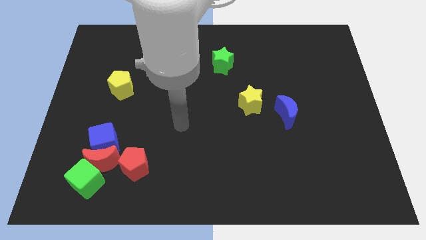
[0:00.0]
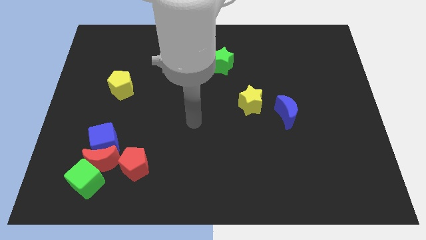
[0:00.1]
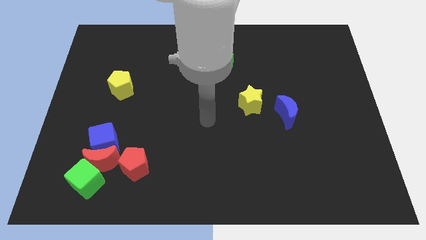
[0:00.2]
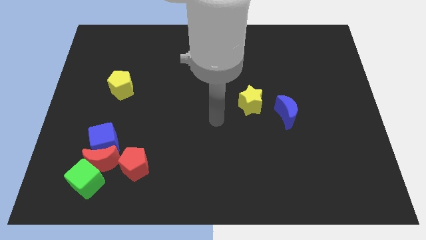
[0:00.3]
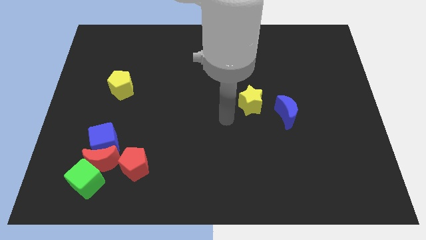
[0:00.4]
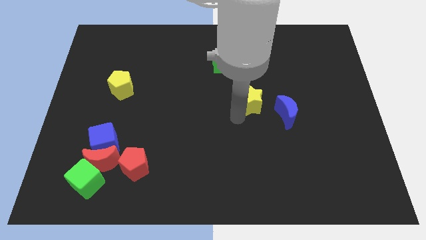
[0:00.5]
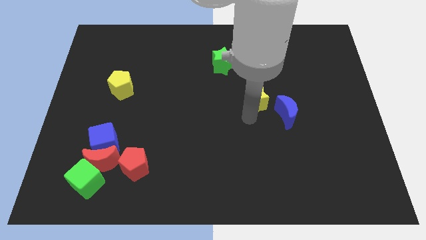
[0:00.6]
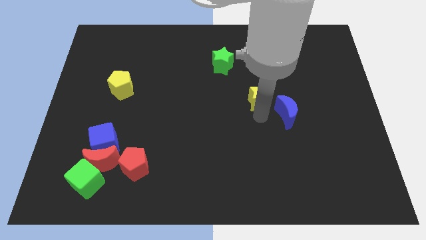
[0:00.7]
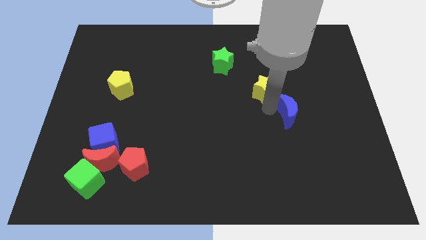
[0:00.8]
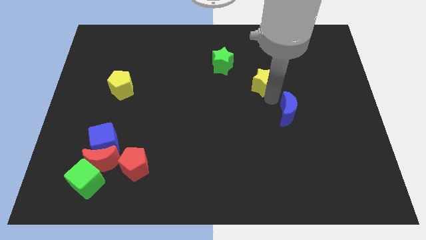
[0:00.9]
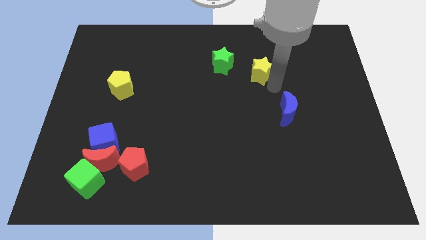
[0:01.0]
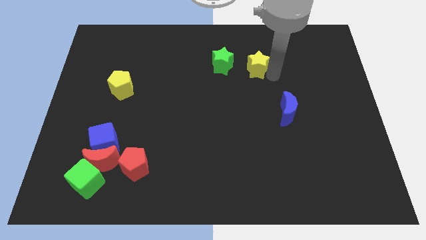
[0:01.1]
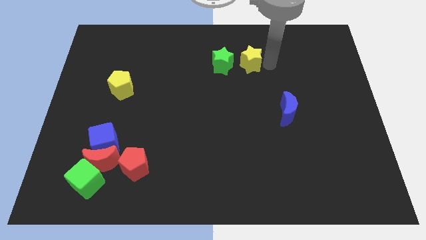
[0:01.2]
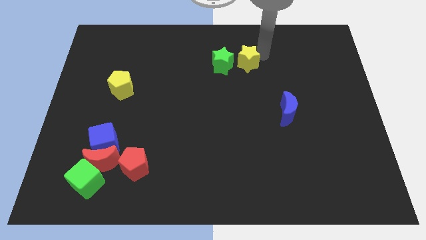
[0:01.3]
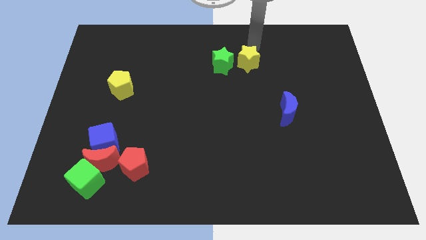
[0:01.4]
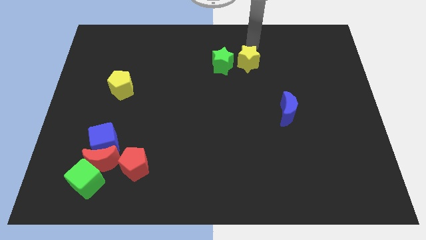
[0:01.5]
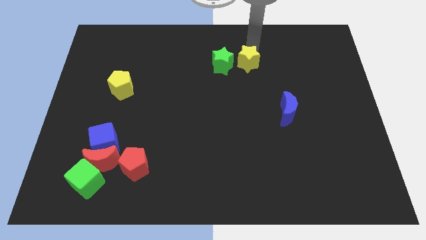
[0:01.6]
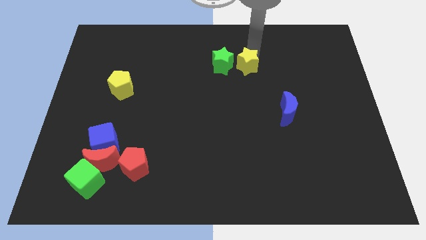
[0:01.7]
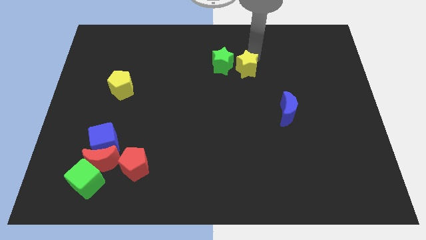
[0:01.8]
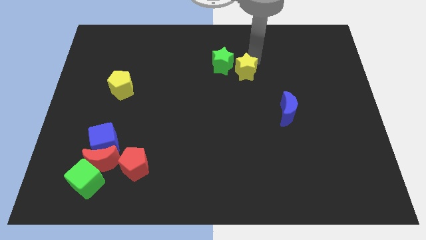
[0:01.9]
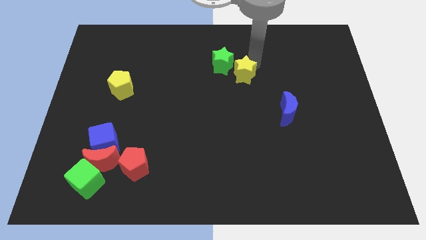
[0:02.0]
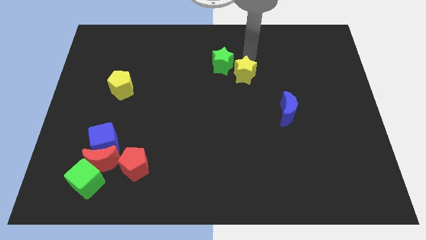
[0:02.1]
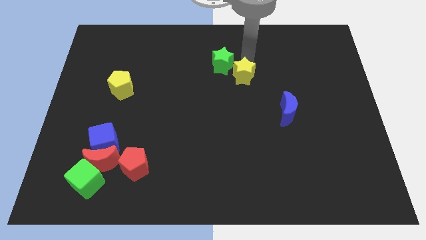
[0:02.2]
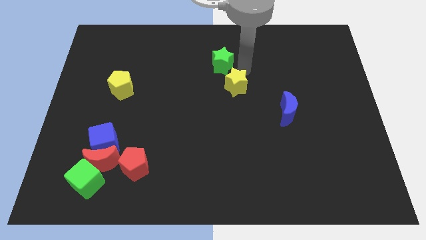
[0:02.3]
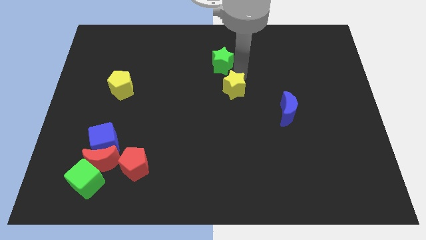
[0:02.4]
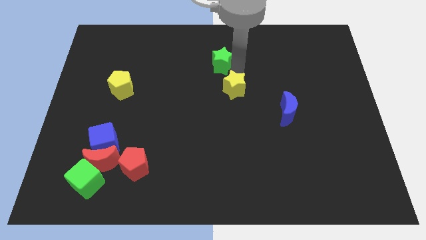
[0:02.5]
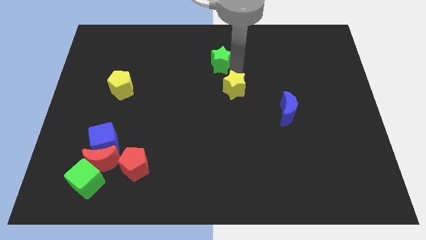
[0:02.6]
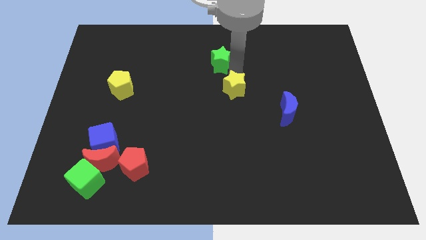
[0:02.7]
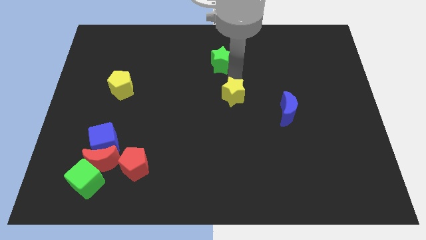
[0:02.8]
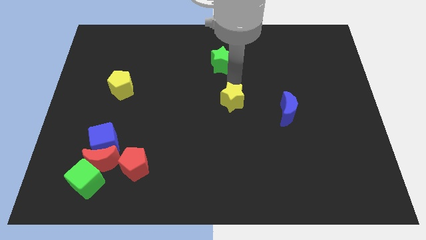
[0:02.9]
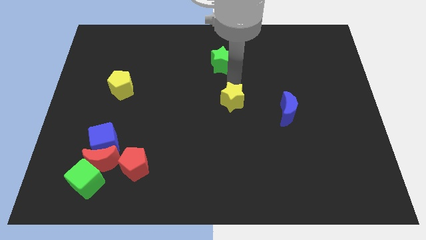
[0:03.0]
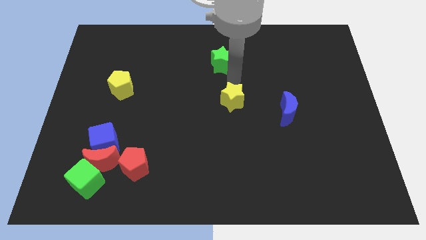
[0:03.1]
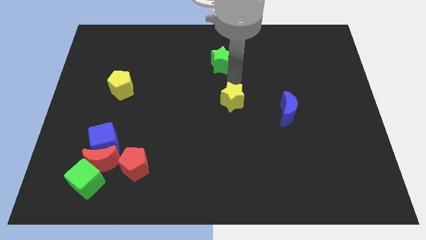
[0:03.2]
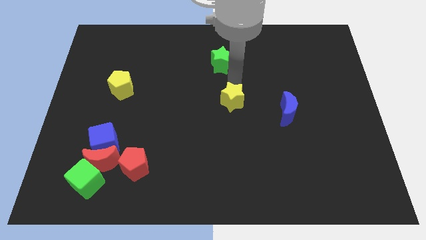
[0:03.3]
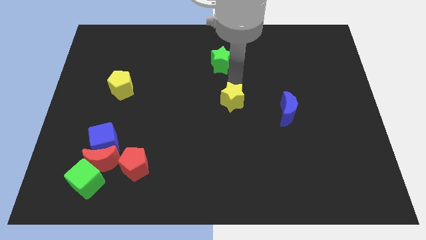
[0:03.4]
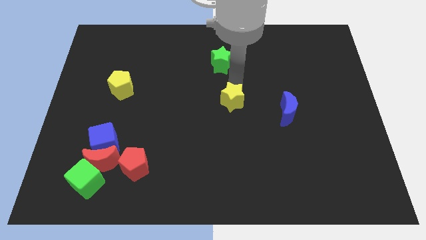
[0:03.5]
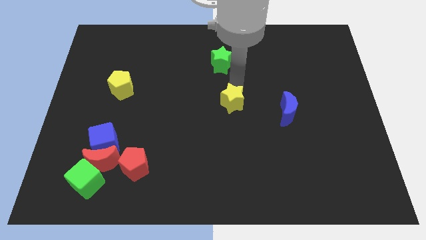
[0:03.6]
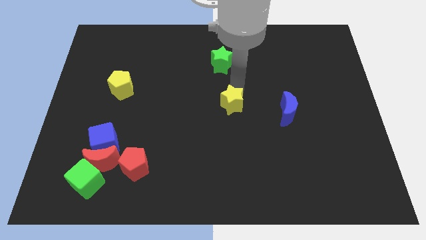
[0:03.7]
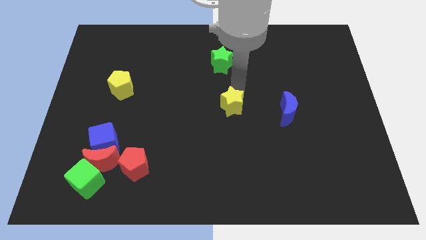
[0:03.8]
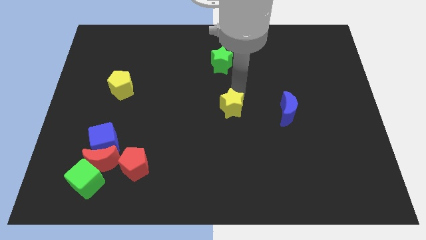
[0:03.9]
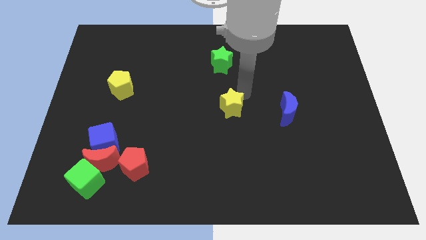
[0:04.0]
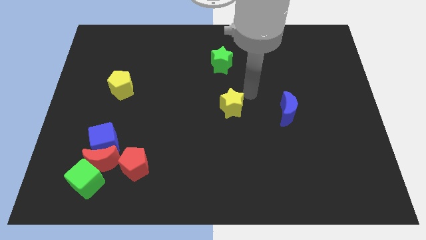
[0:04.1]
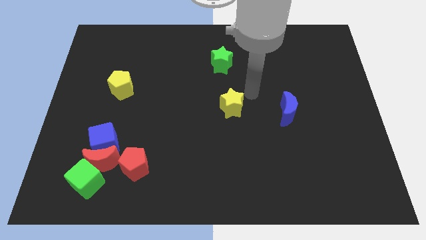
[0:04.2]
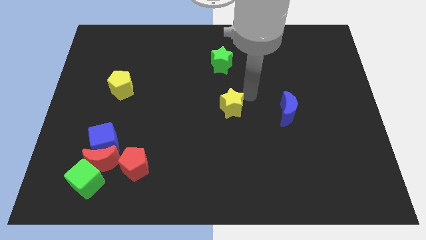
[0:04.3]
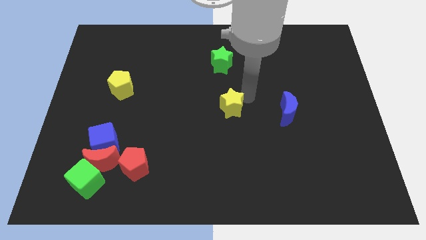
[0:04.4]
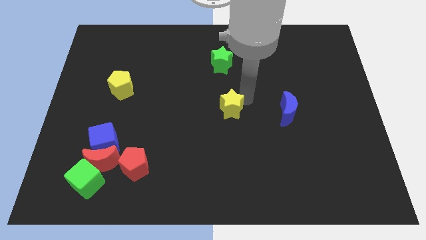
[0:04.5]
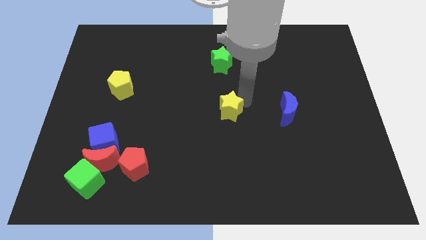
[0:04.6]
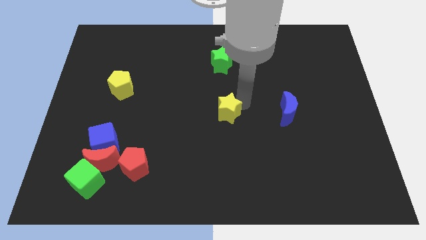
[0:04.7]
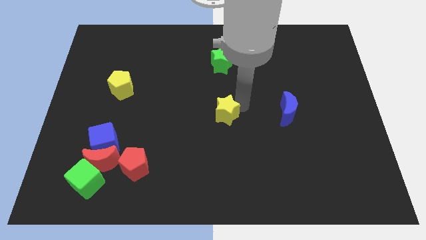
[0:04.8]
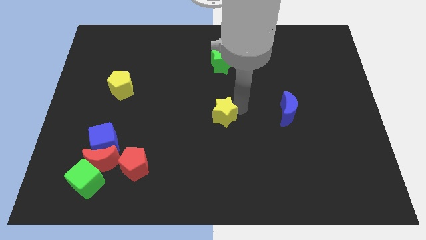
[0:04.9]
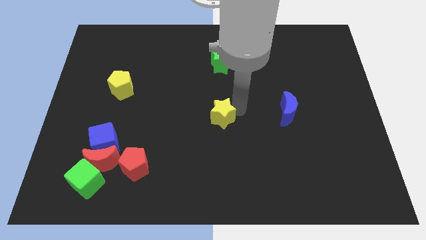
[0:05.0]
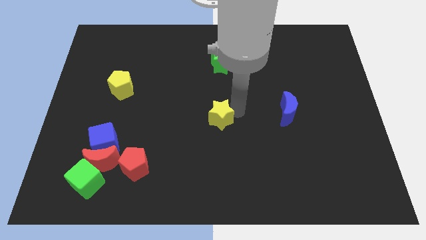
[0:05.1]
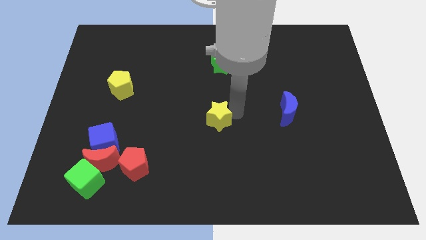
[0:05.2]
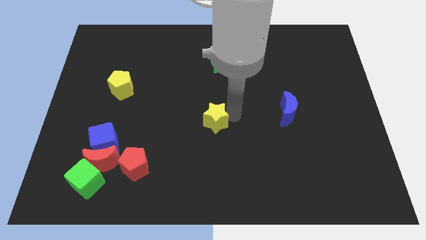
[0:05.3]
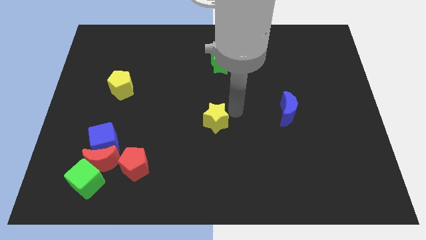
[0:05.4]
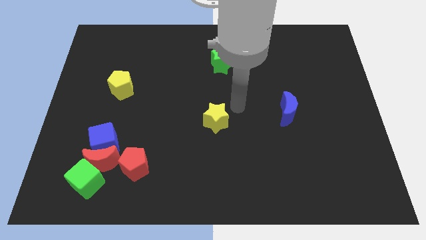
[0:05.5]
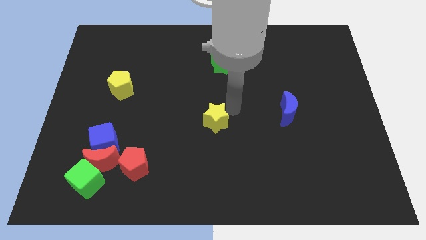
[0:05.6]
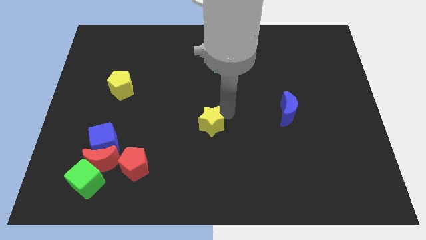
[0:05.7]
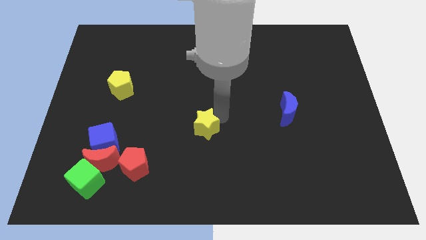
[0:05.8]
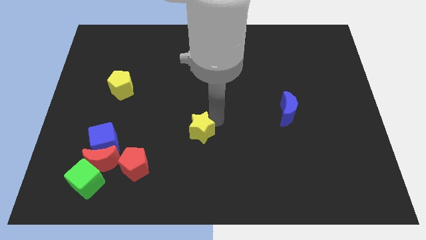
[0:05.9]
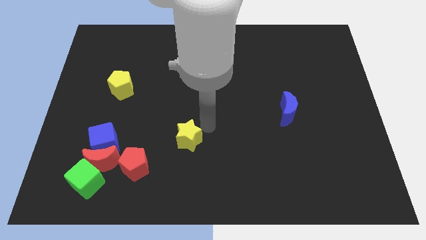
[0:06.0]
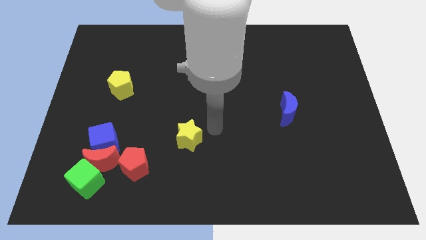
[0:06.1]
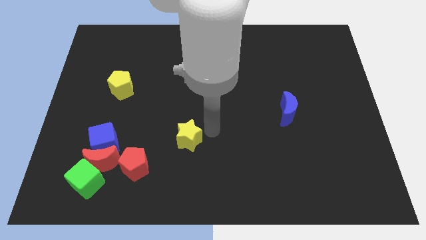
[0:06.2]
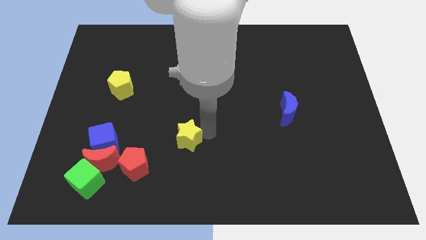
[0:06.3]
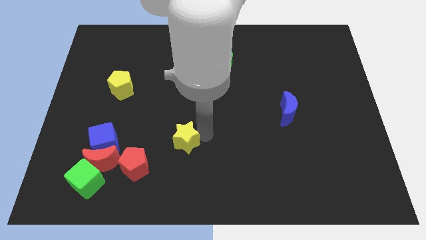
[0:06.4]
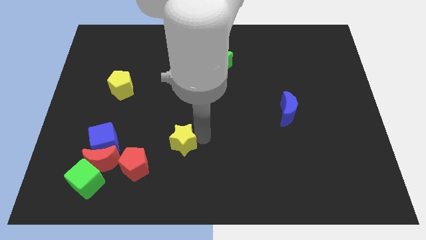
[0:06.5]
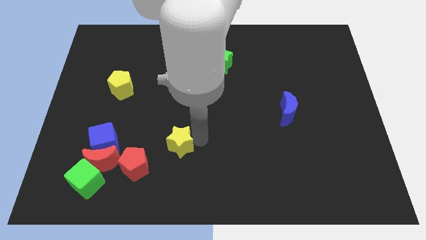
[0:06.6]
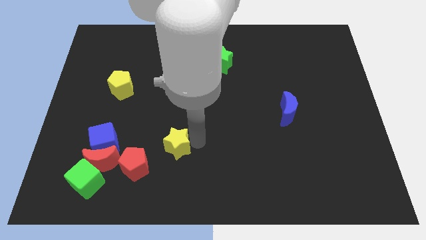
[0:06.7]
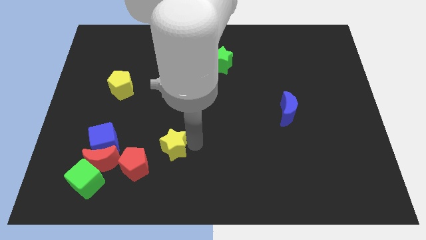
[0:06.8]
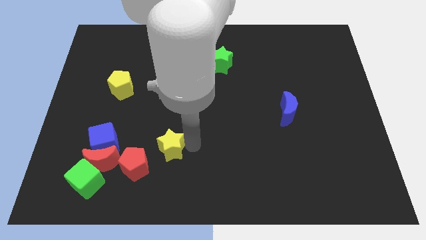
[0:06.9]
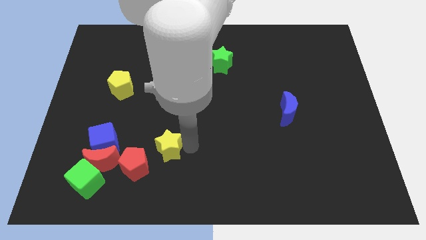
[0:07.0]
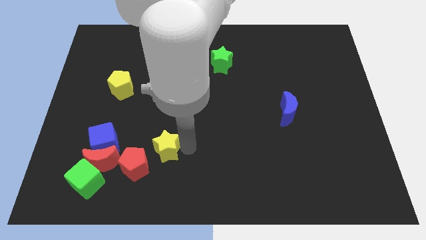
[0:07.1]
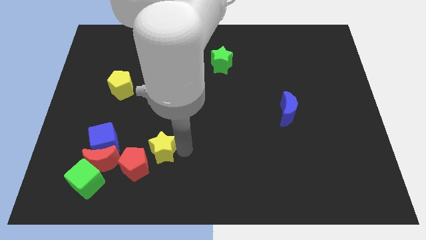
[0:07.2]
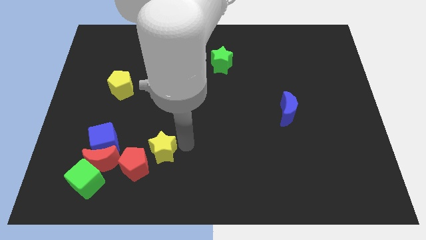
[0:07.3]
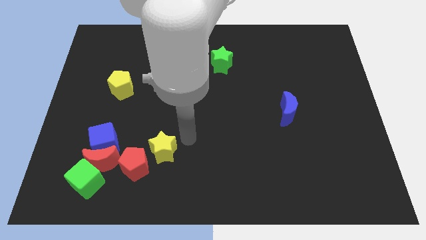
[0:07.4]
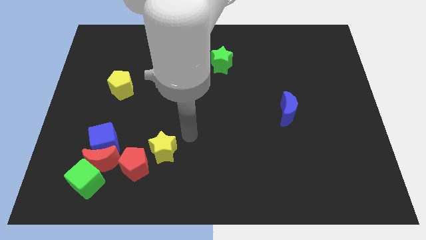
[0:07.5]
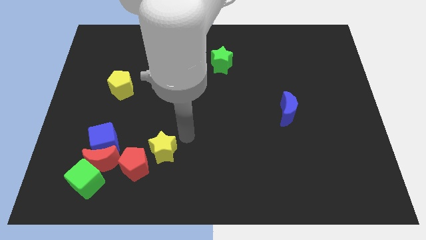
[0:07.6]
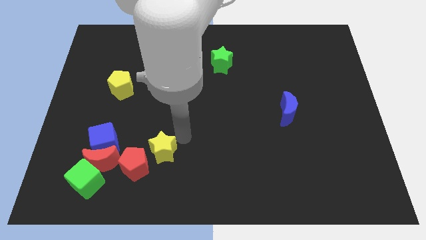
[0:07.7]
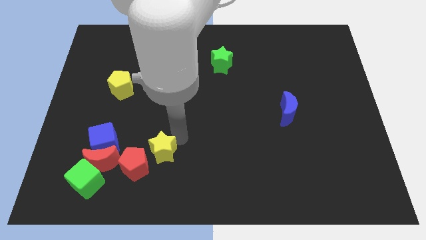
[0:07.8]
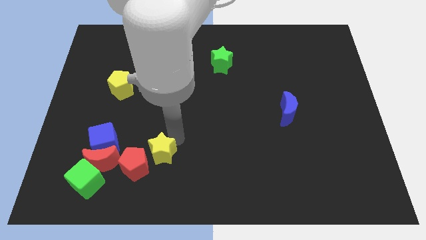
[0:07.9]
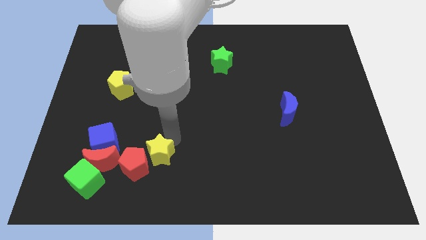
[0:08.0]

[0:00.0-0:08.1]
push the yellow star next to the red pentagon
